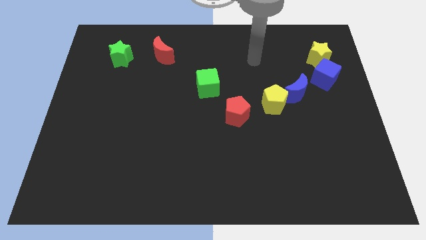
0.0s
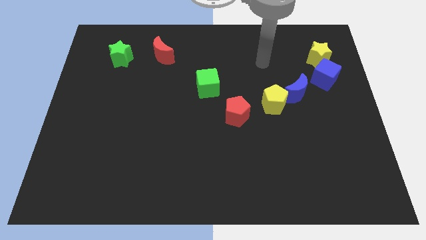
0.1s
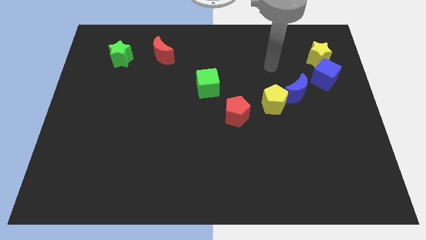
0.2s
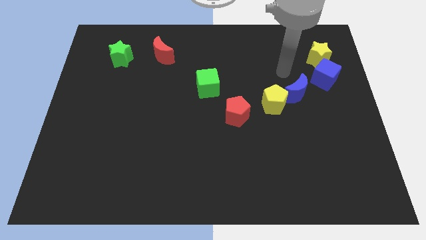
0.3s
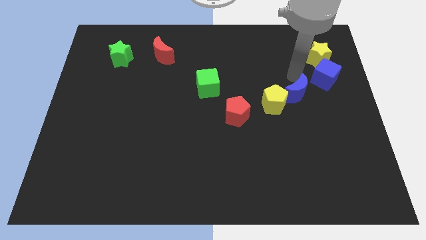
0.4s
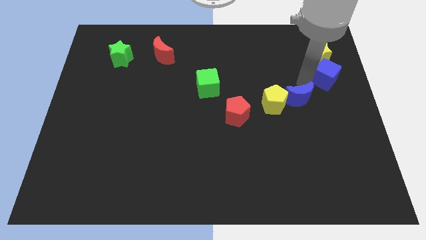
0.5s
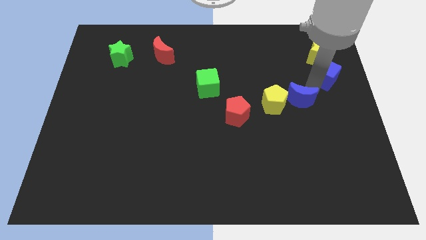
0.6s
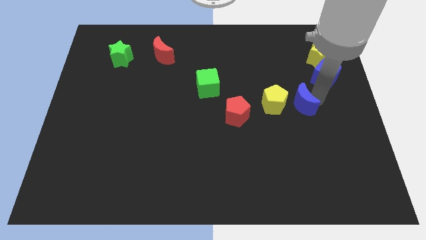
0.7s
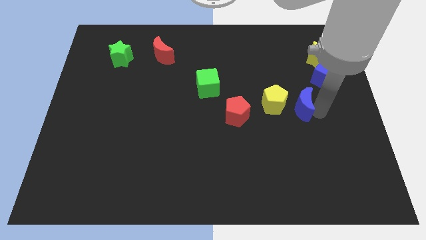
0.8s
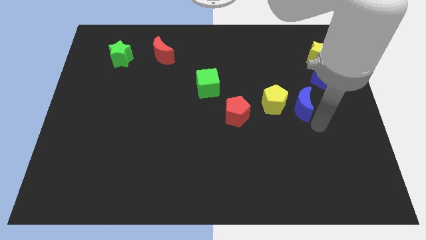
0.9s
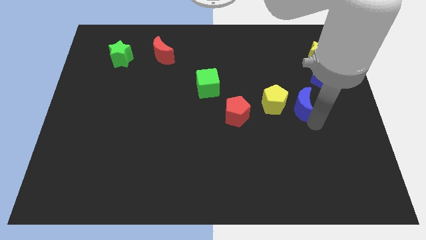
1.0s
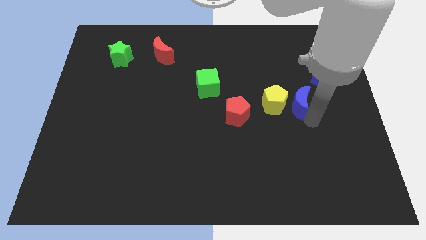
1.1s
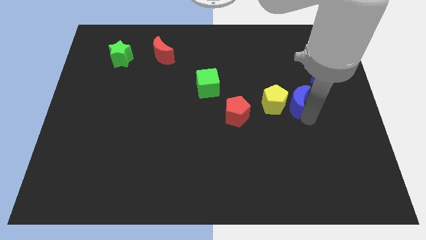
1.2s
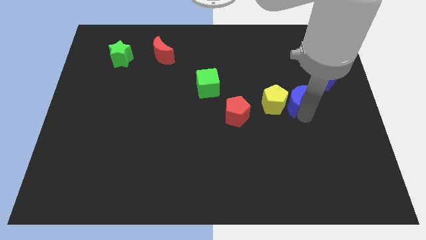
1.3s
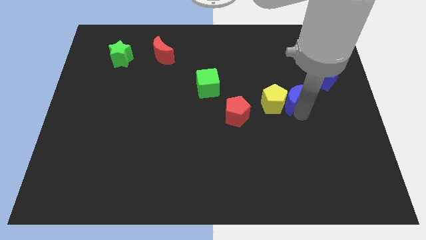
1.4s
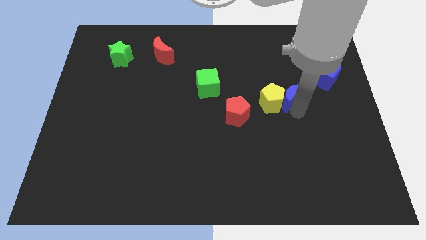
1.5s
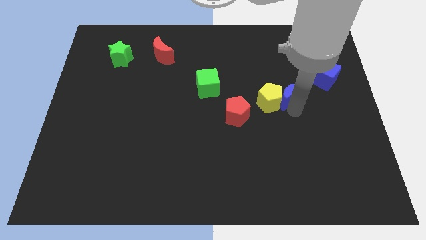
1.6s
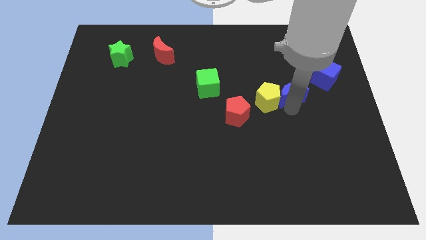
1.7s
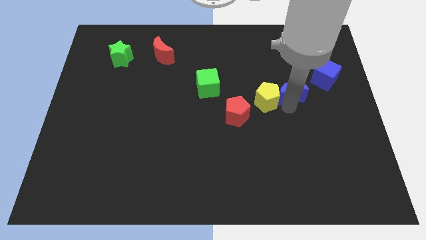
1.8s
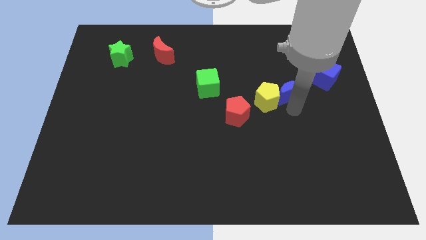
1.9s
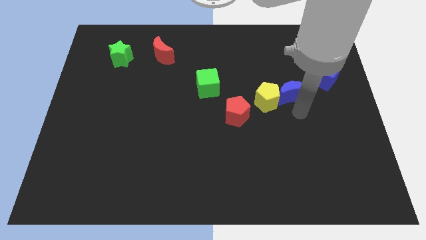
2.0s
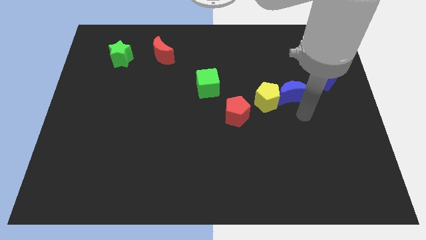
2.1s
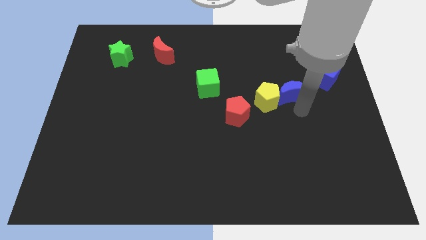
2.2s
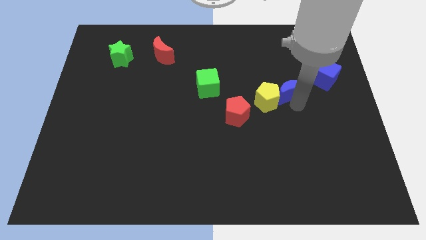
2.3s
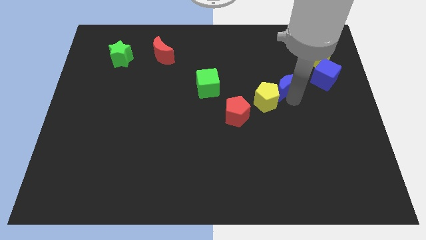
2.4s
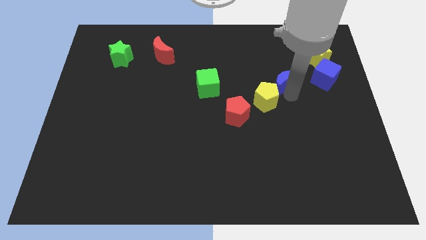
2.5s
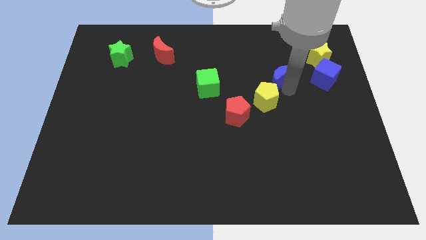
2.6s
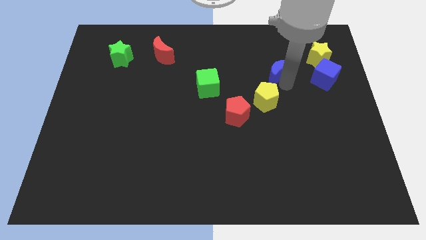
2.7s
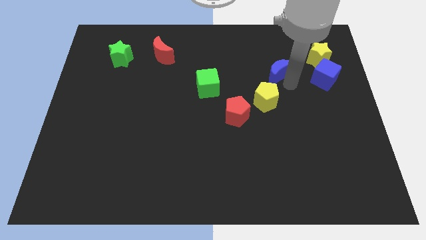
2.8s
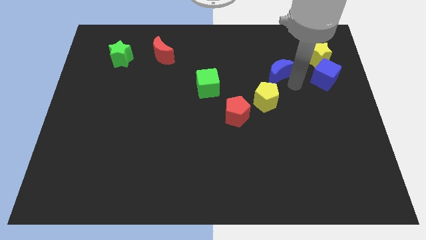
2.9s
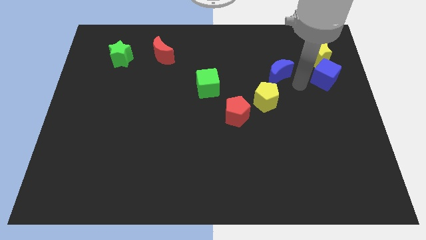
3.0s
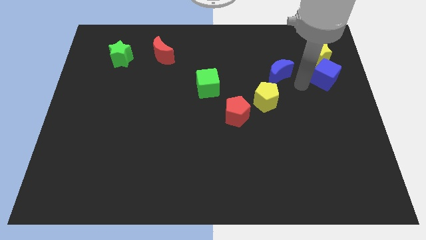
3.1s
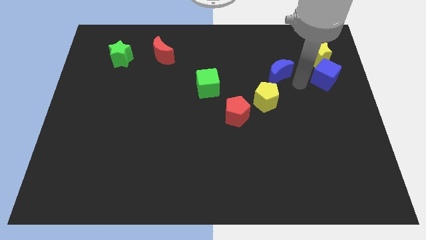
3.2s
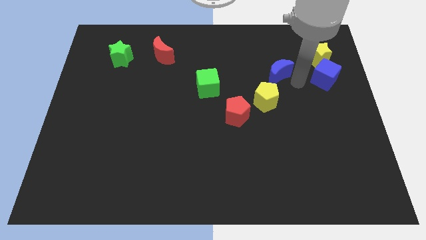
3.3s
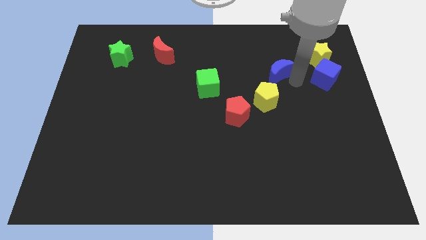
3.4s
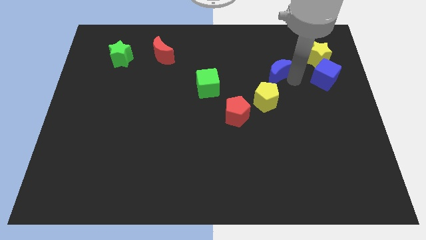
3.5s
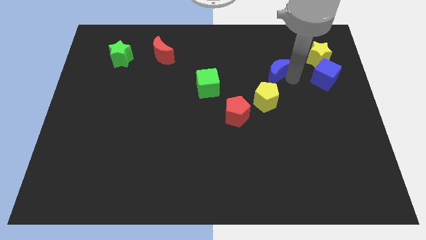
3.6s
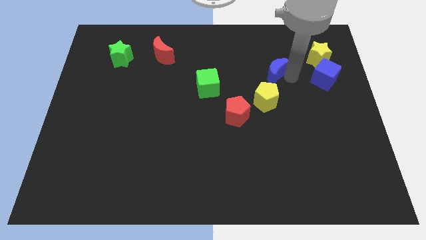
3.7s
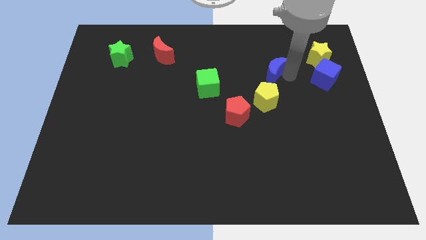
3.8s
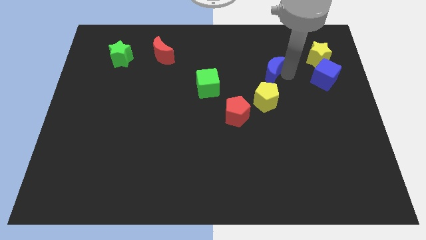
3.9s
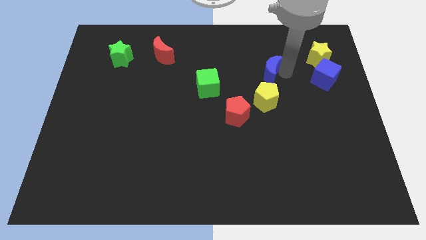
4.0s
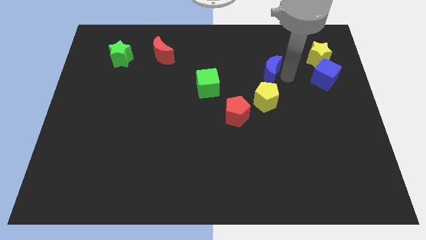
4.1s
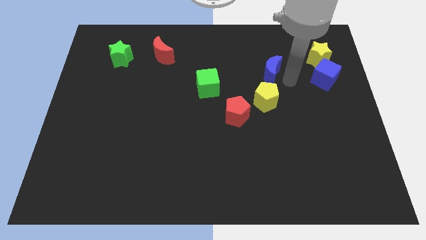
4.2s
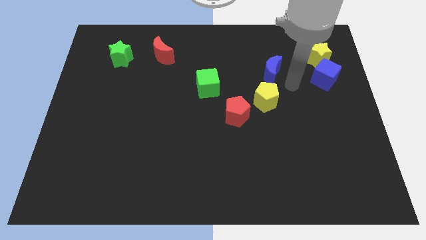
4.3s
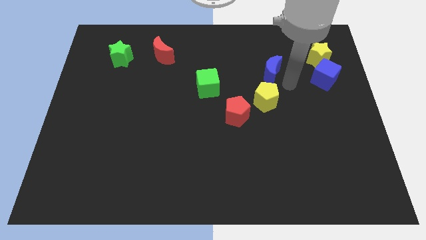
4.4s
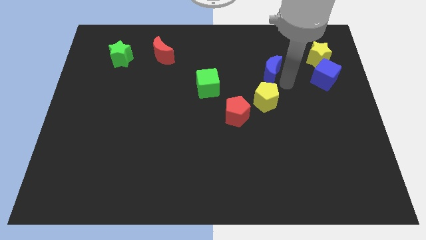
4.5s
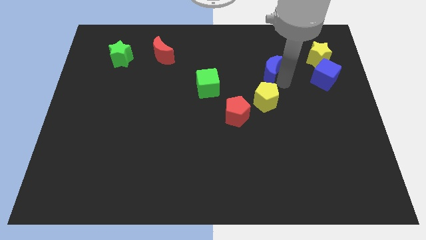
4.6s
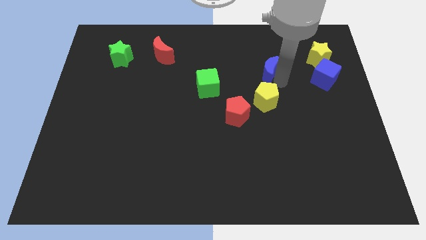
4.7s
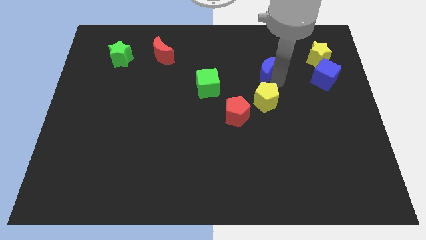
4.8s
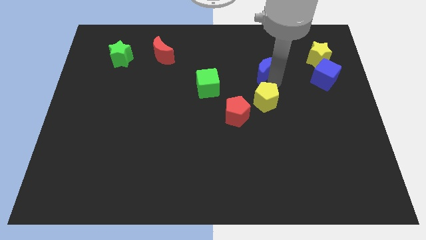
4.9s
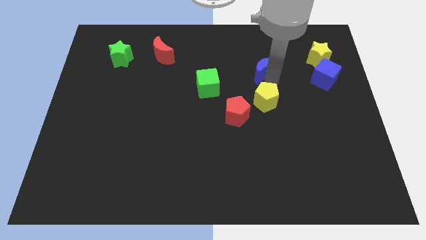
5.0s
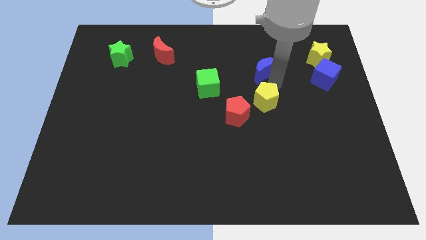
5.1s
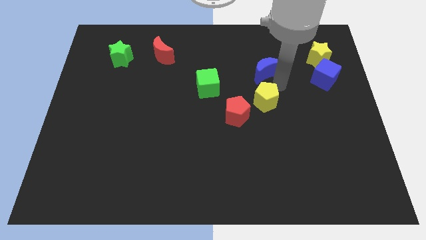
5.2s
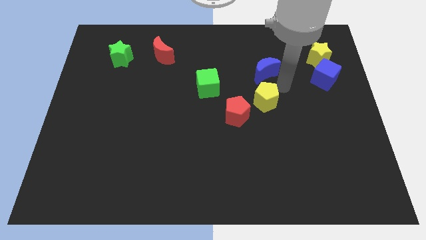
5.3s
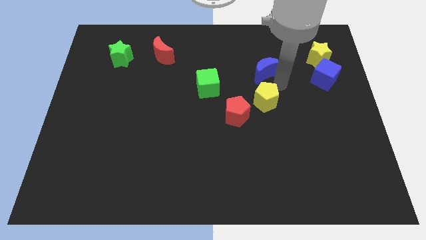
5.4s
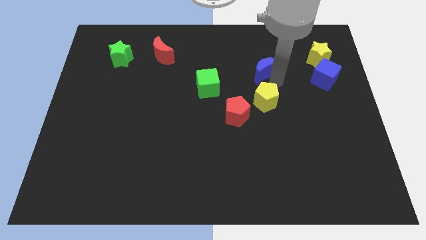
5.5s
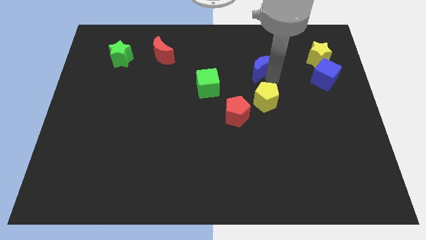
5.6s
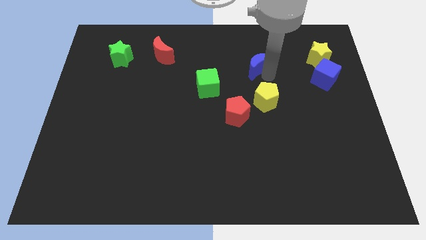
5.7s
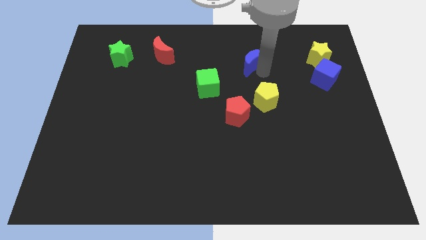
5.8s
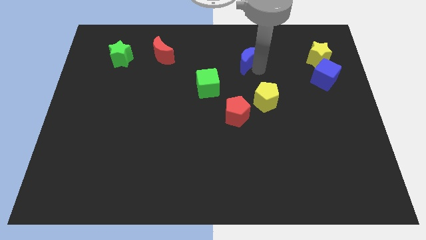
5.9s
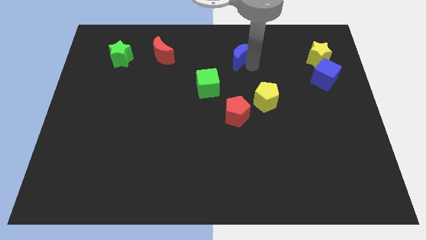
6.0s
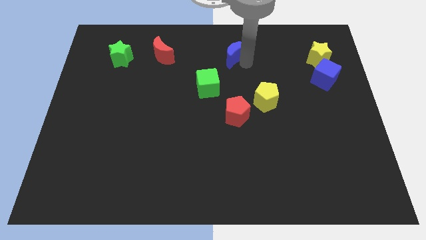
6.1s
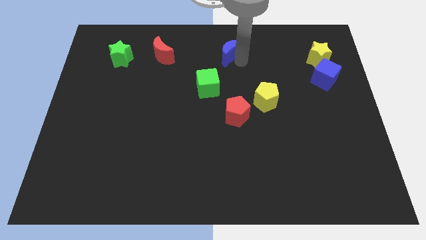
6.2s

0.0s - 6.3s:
slide the blue moon to the top

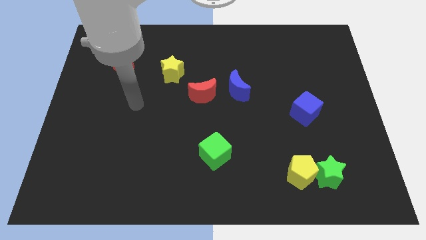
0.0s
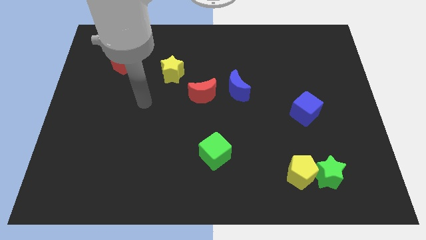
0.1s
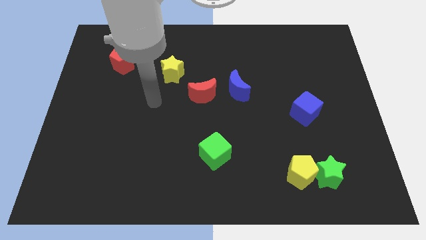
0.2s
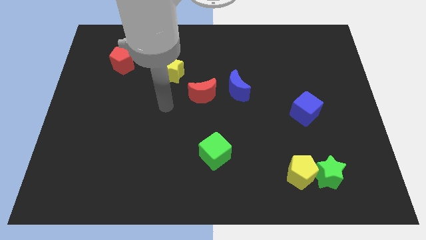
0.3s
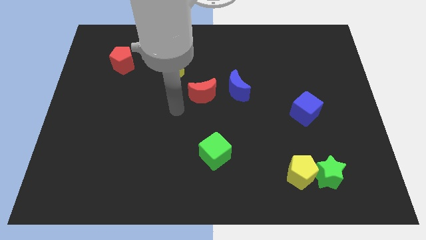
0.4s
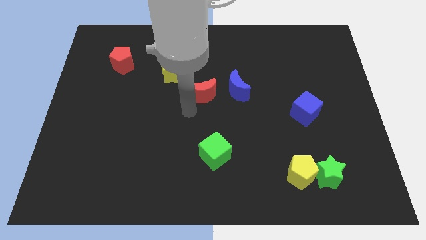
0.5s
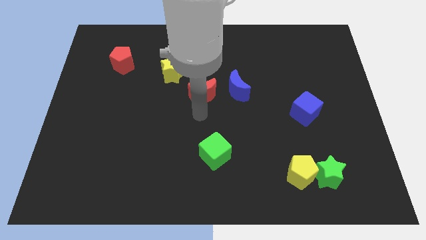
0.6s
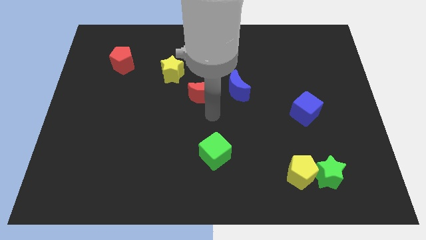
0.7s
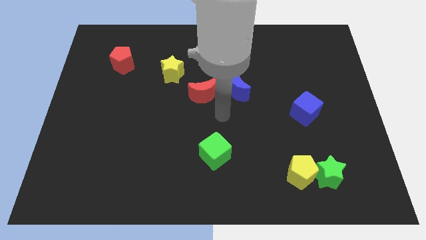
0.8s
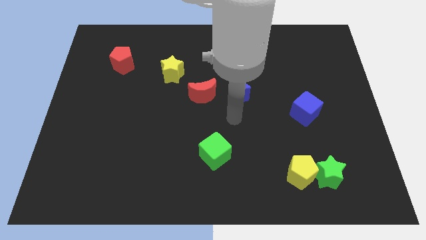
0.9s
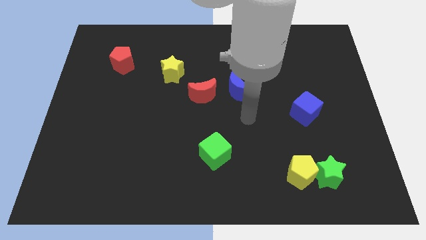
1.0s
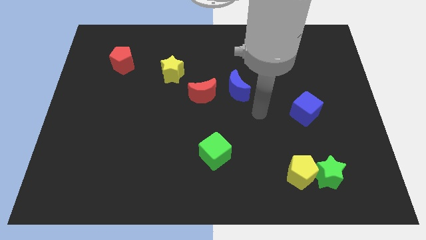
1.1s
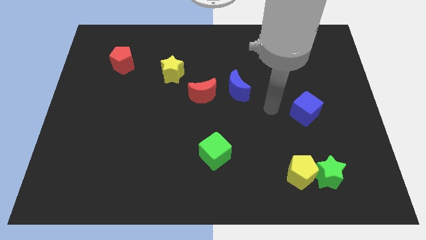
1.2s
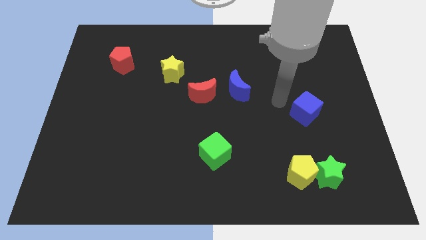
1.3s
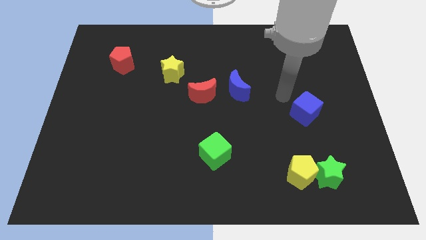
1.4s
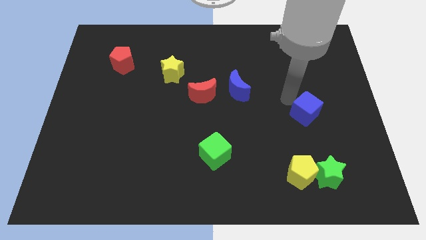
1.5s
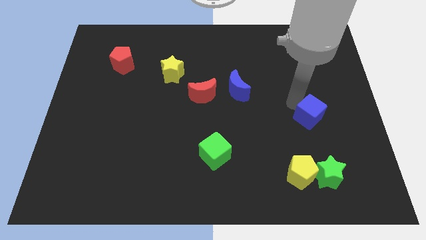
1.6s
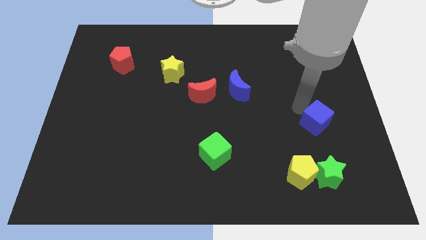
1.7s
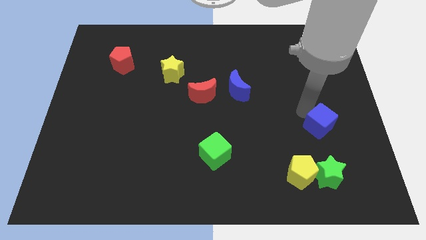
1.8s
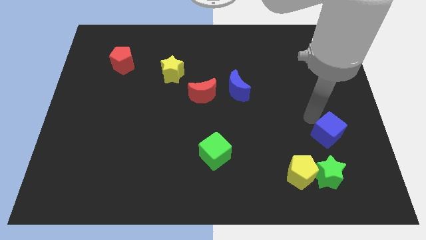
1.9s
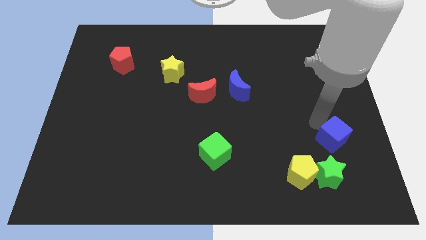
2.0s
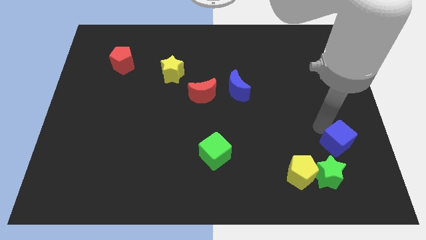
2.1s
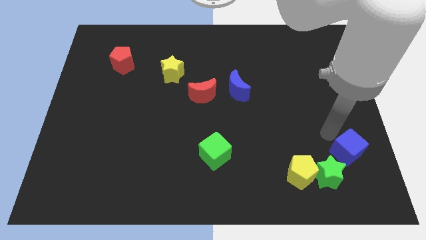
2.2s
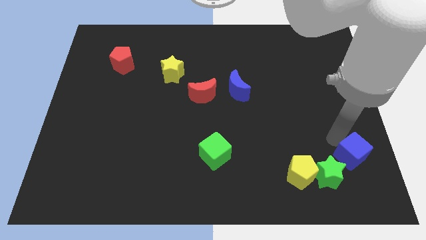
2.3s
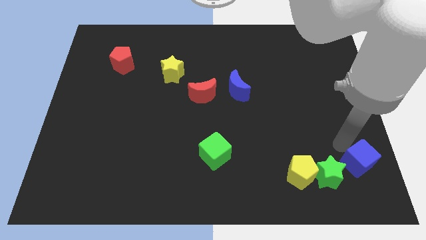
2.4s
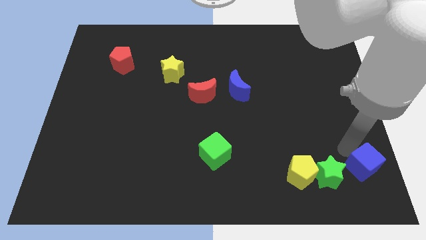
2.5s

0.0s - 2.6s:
push the blue cube to the bottom right corner
